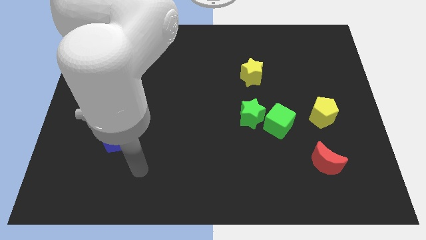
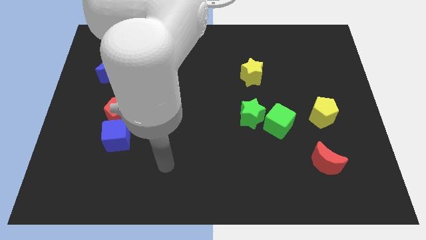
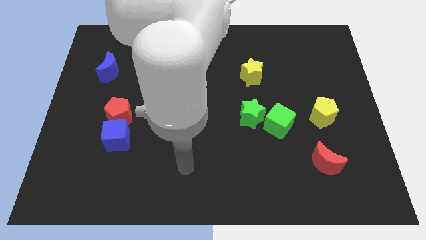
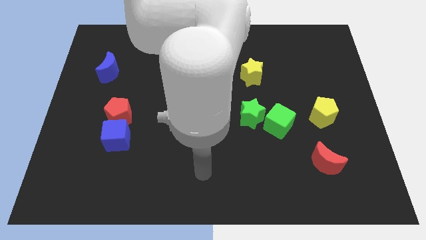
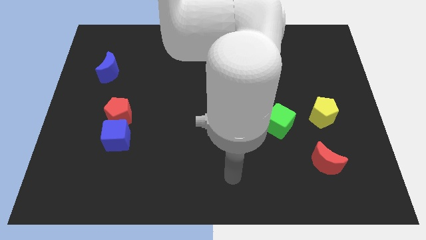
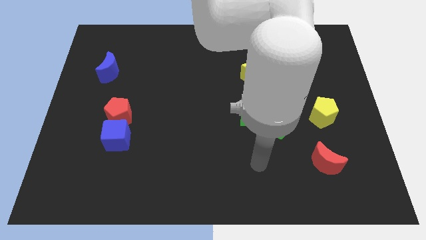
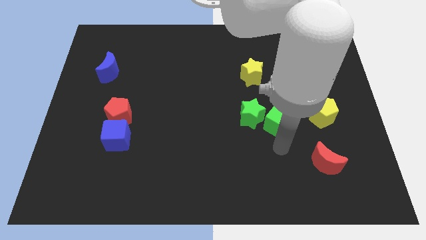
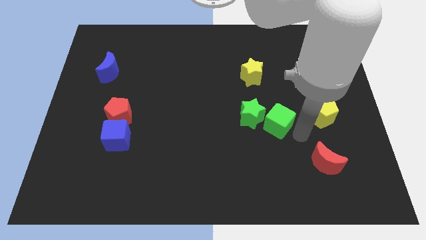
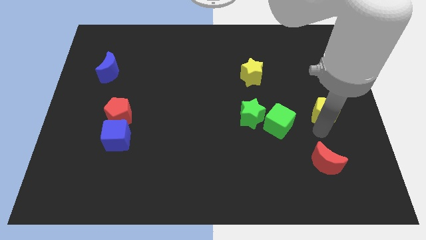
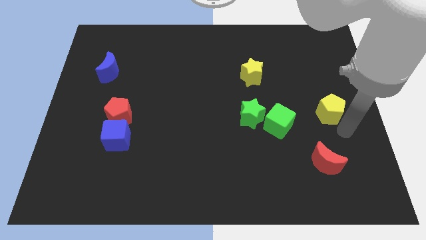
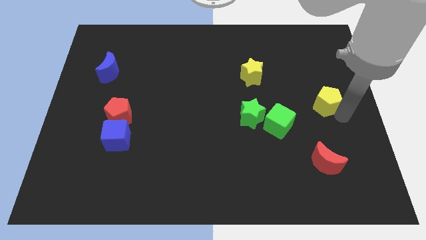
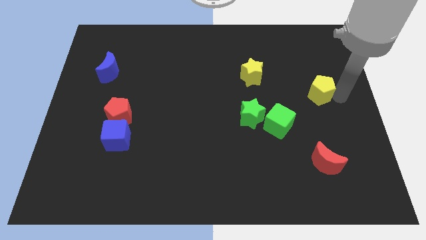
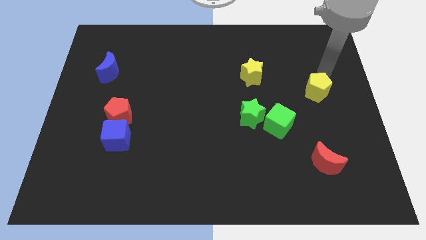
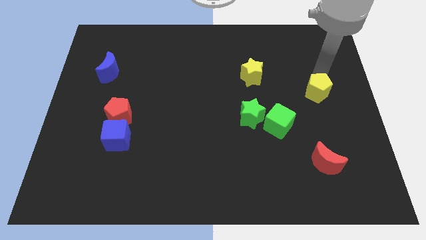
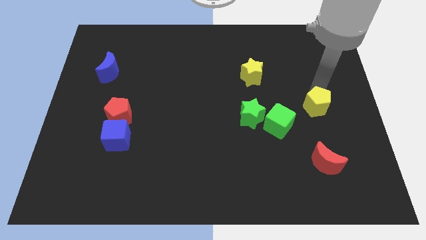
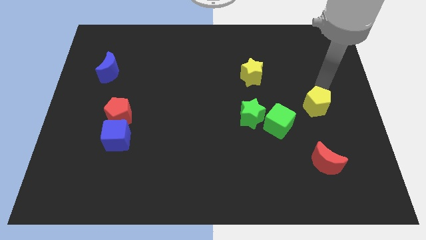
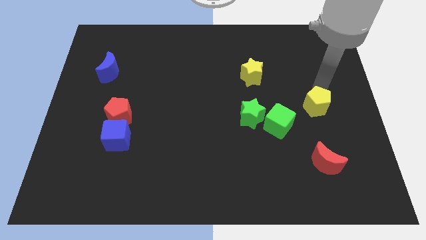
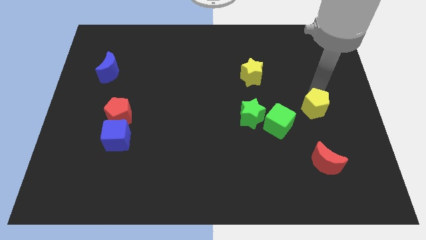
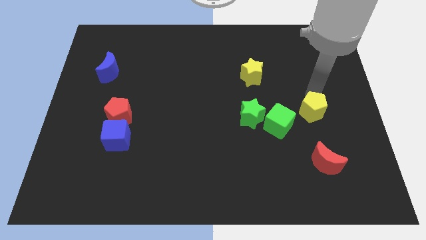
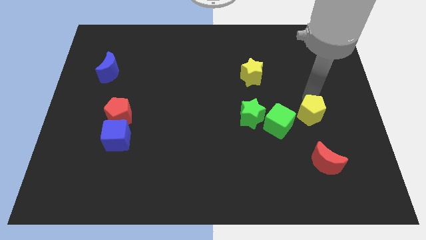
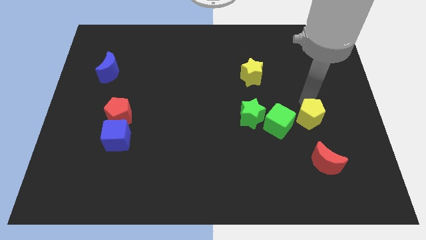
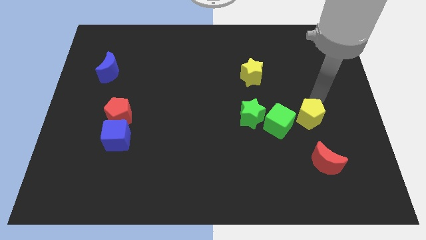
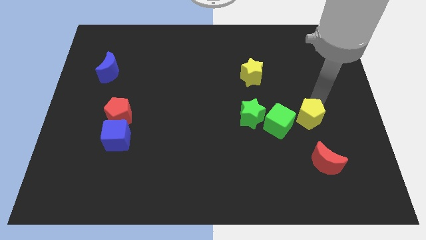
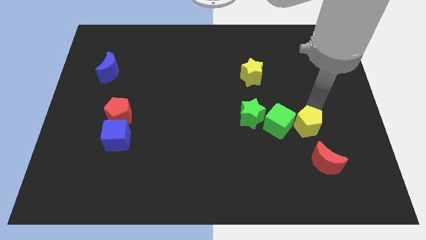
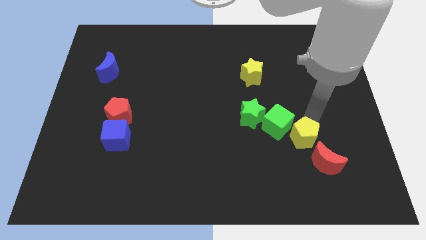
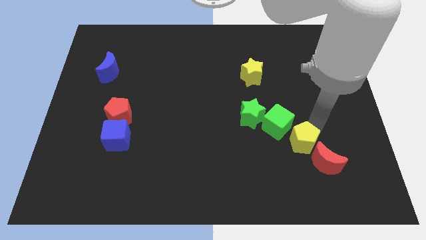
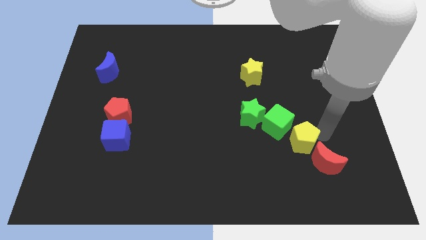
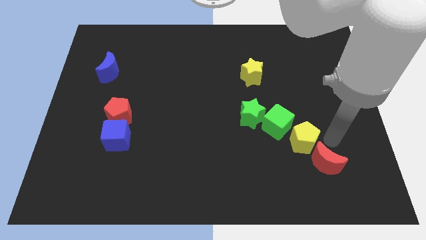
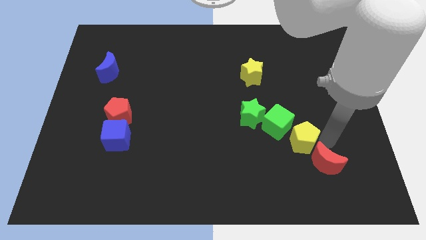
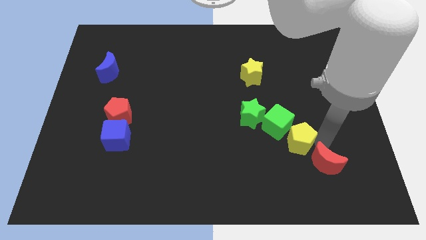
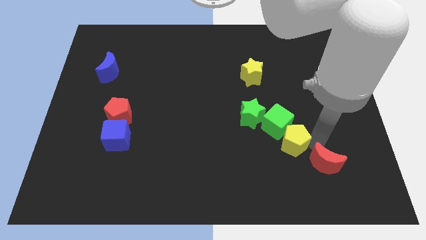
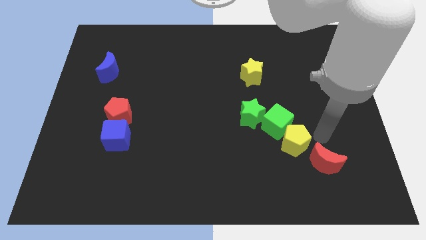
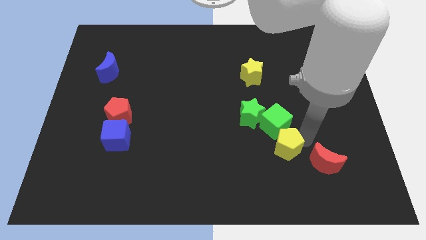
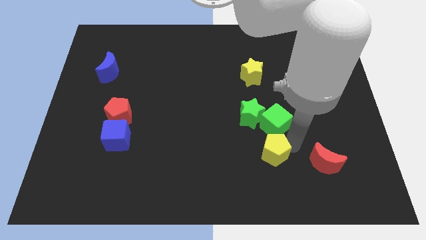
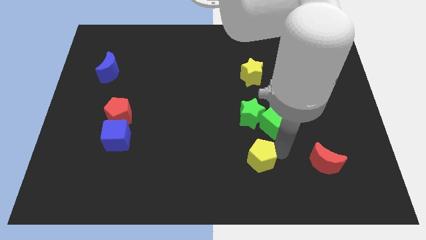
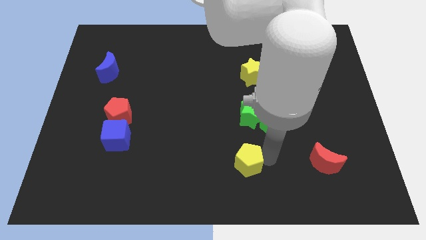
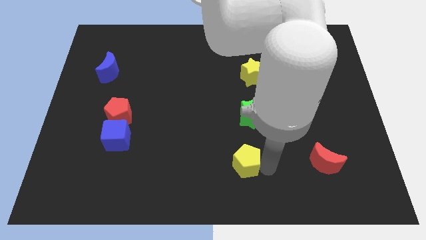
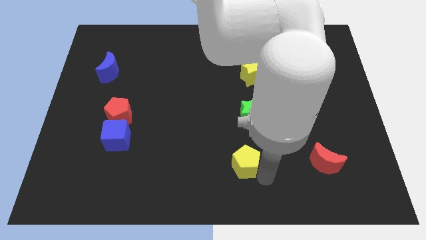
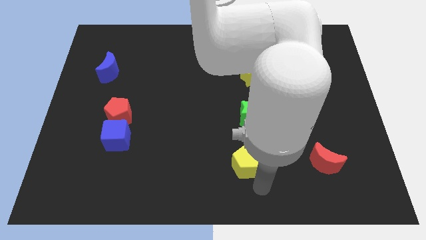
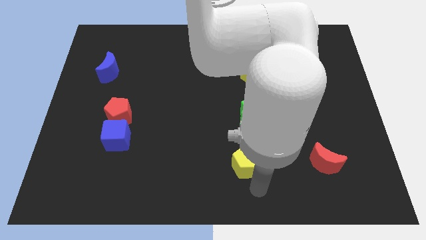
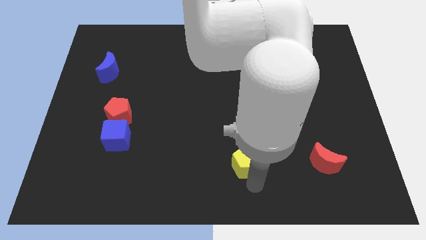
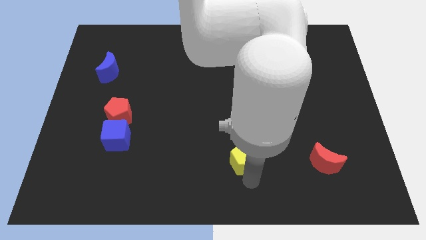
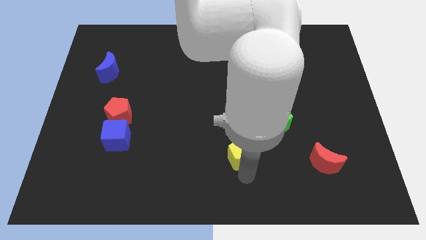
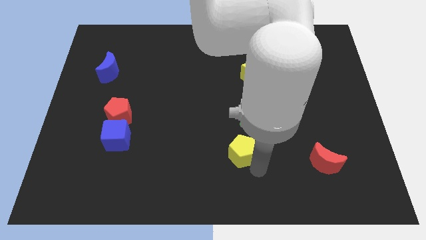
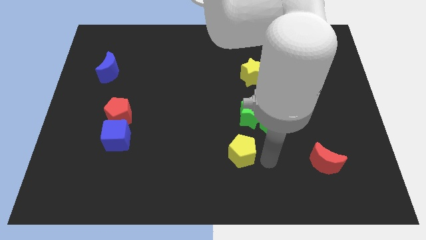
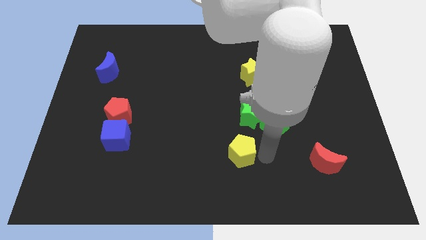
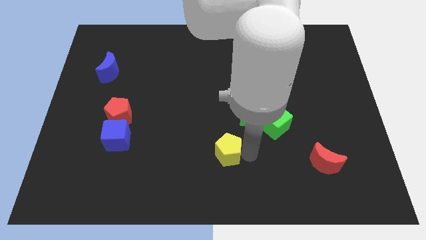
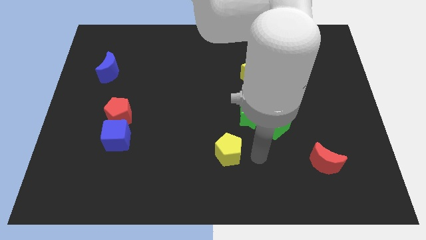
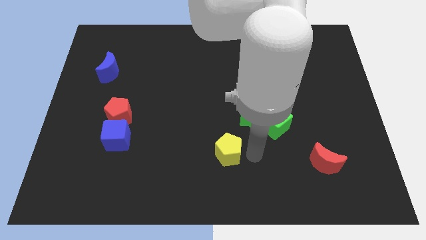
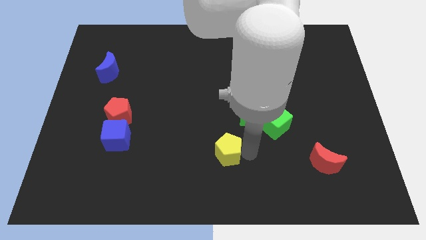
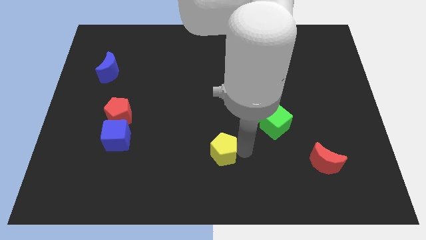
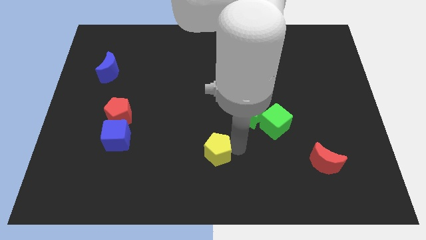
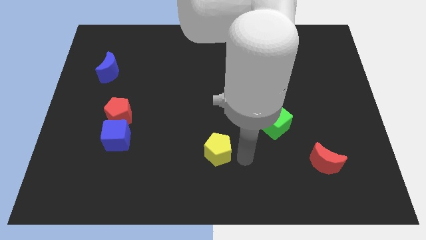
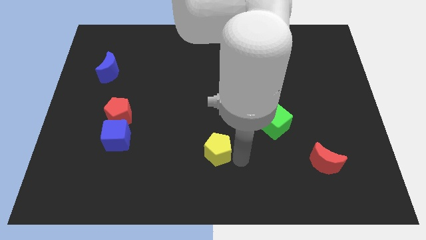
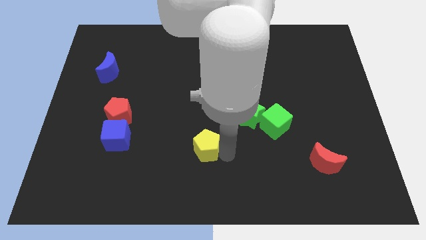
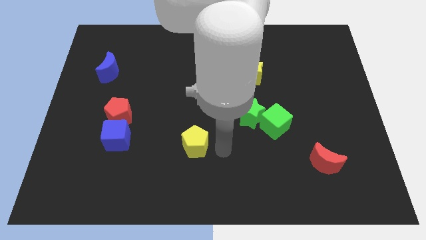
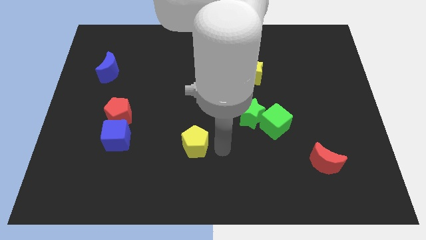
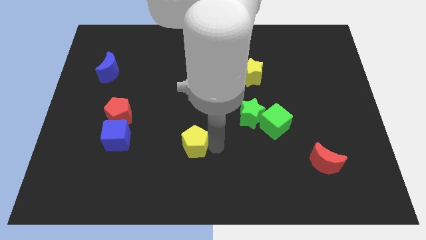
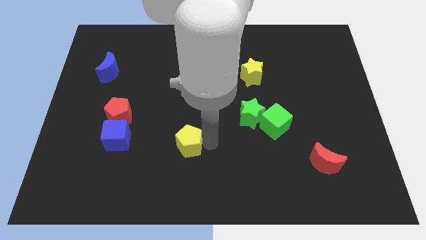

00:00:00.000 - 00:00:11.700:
push the yellow pentagon to the right of the blue cube

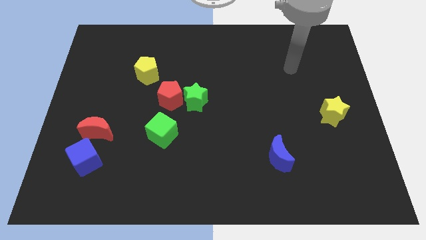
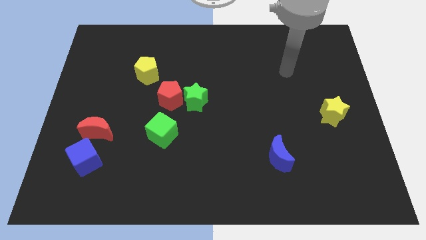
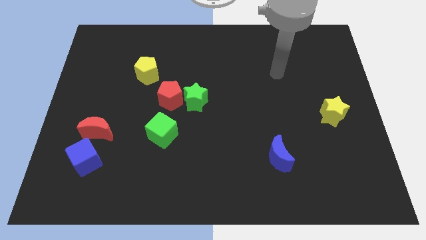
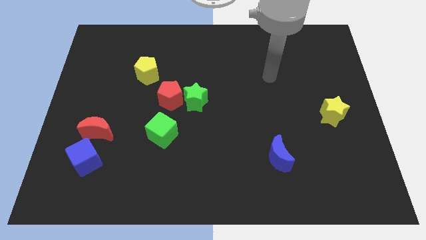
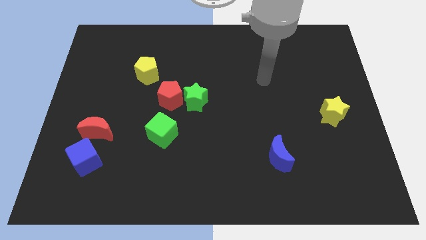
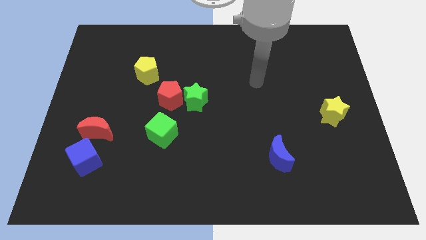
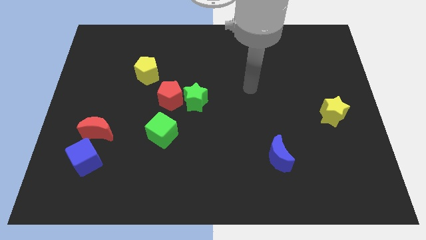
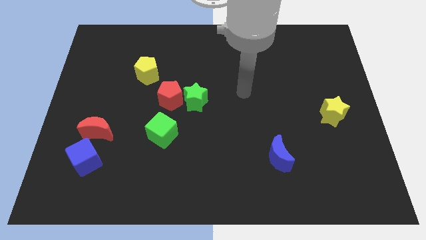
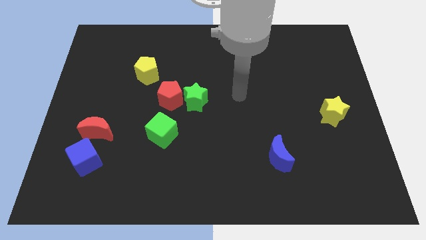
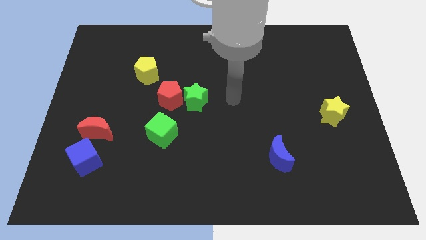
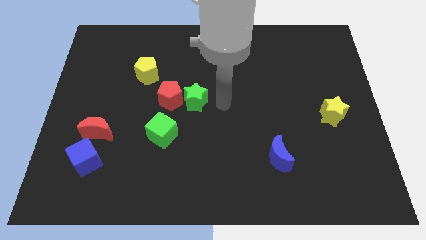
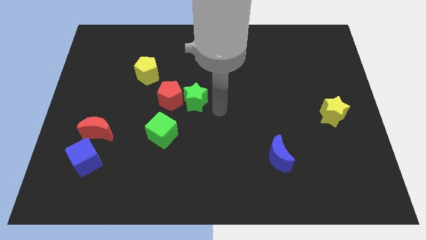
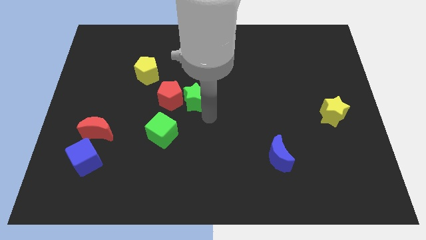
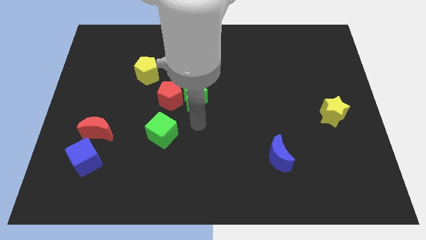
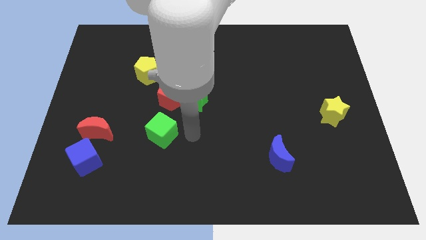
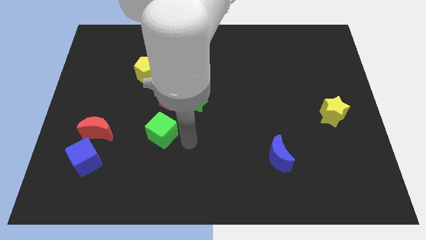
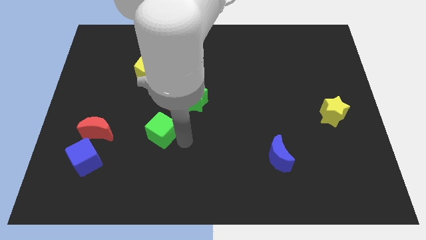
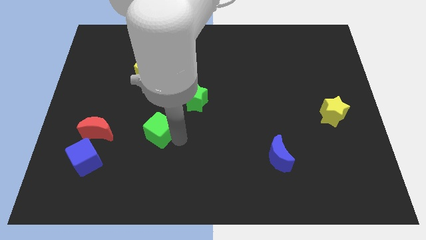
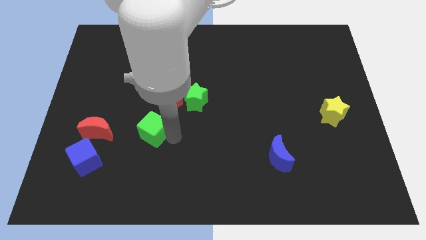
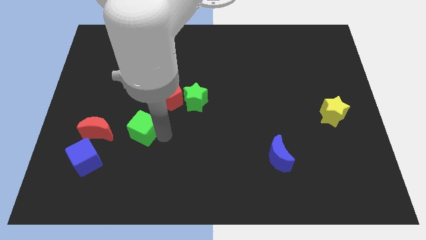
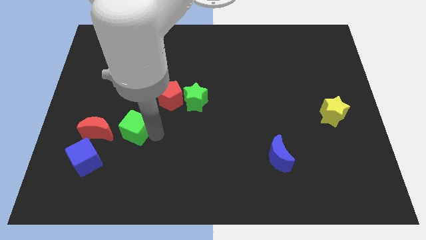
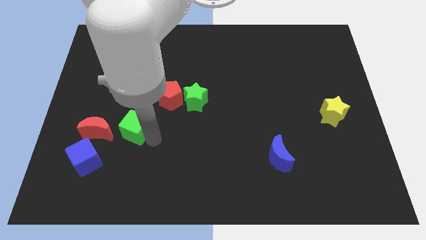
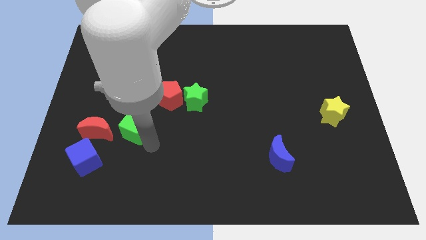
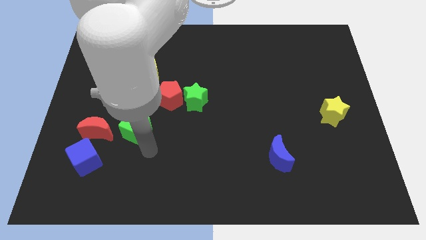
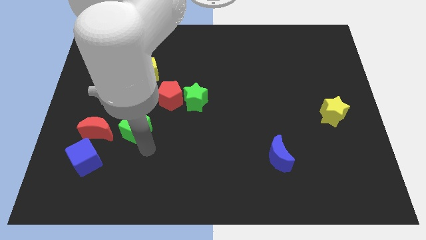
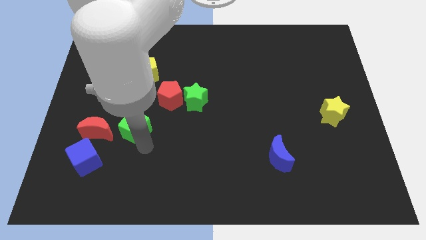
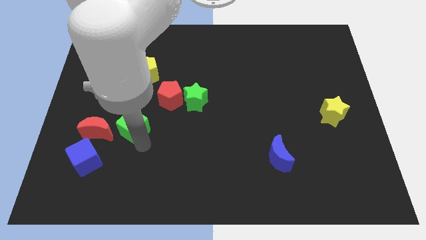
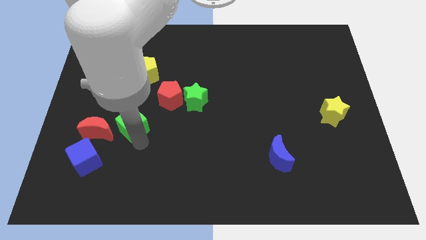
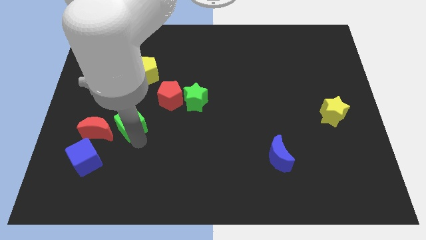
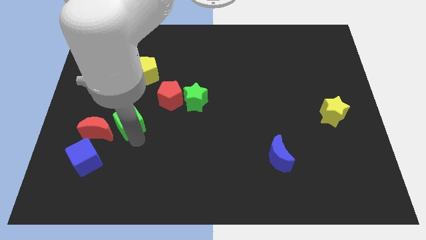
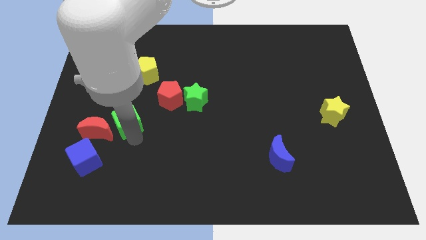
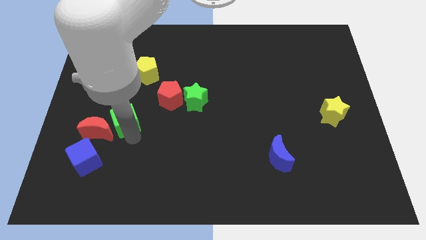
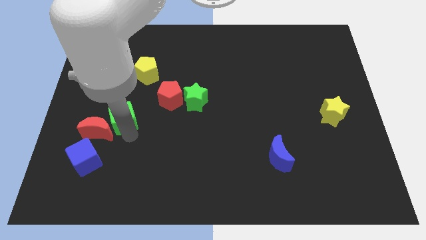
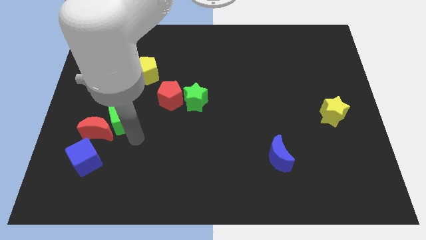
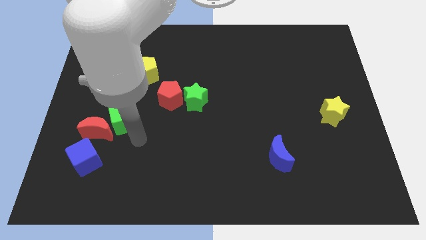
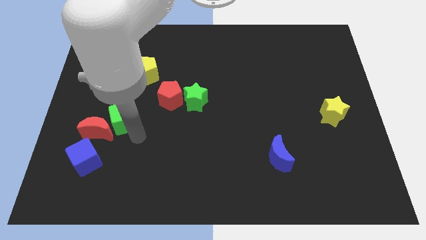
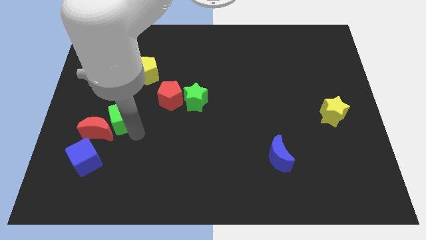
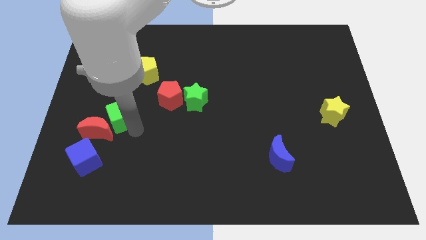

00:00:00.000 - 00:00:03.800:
push the green cube above the red moon
